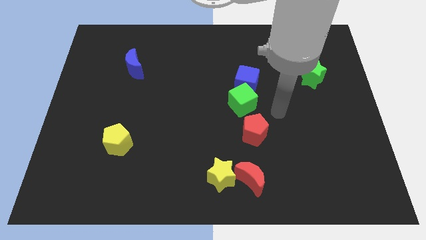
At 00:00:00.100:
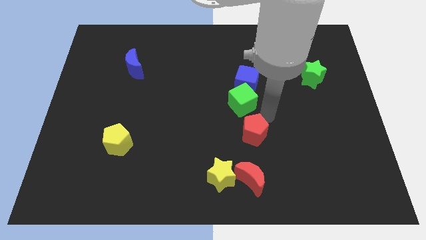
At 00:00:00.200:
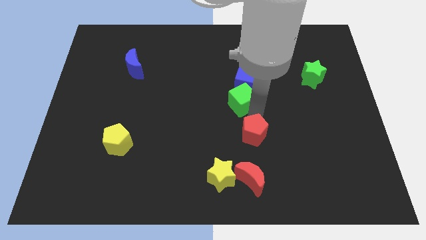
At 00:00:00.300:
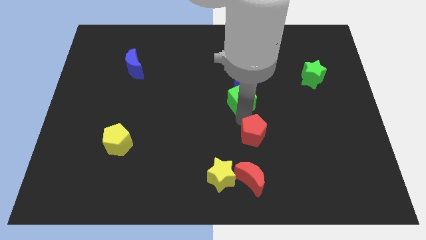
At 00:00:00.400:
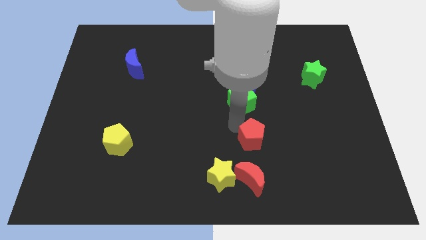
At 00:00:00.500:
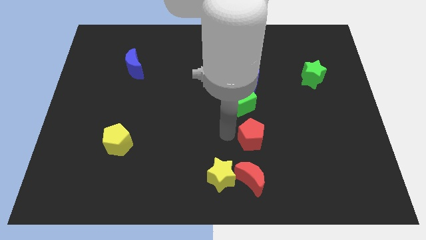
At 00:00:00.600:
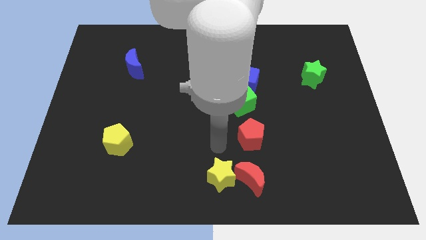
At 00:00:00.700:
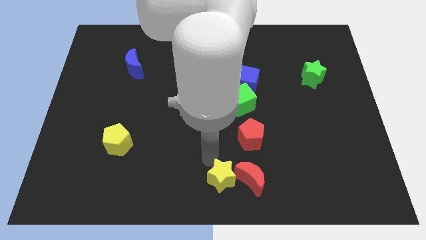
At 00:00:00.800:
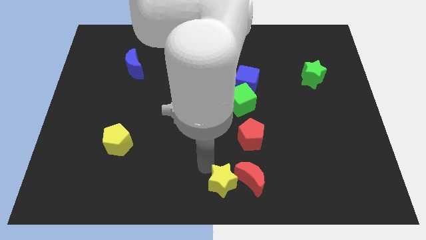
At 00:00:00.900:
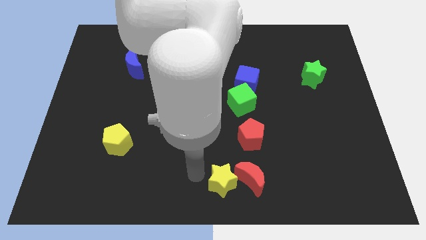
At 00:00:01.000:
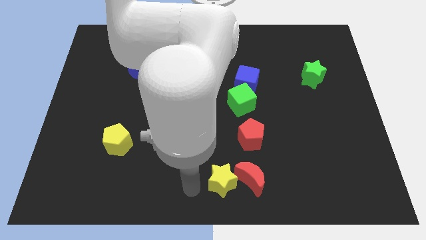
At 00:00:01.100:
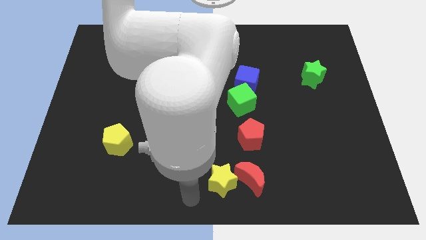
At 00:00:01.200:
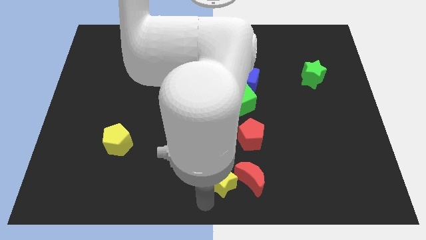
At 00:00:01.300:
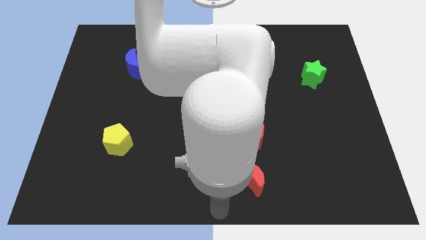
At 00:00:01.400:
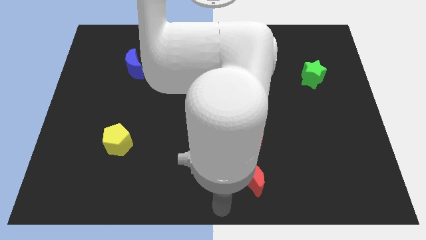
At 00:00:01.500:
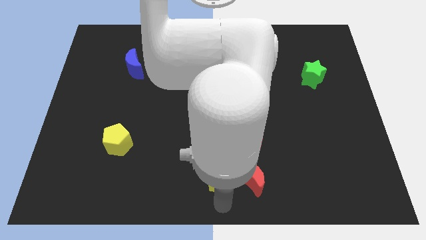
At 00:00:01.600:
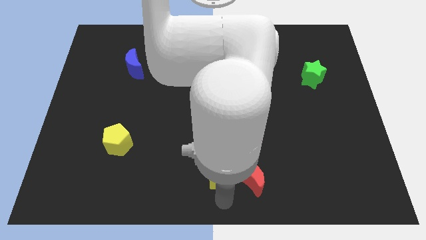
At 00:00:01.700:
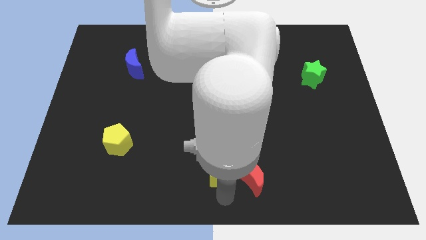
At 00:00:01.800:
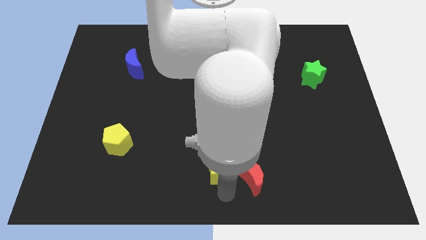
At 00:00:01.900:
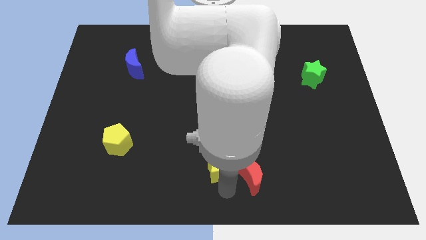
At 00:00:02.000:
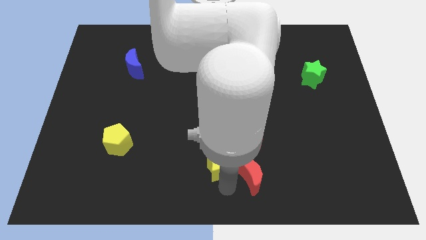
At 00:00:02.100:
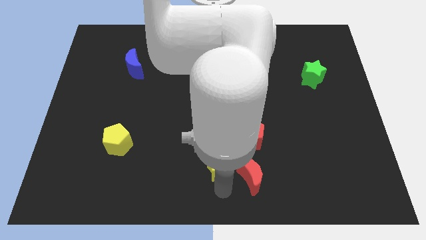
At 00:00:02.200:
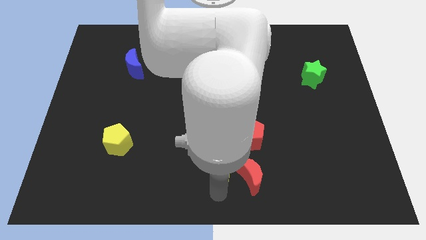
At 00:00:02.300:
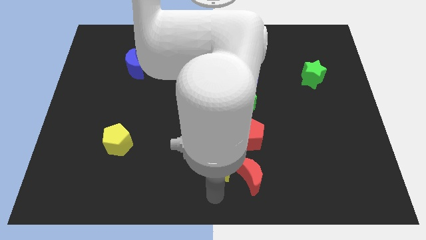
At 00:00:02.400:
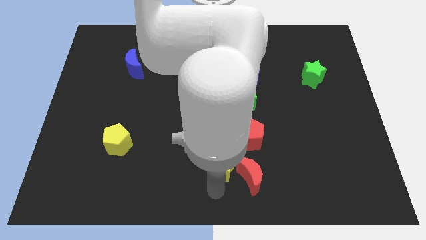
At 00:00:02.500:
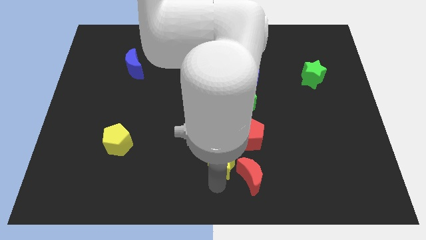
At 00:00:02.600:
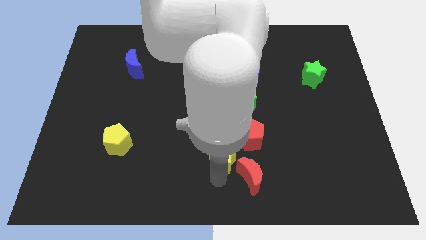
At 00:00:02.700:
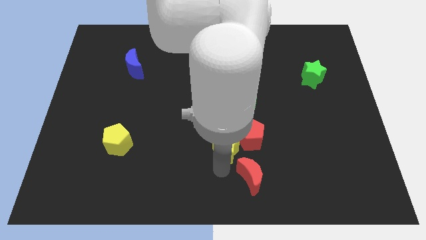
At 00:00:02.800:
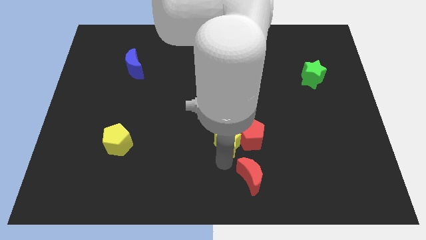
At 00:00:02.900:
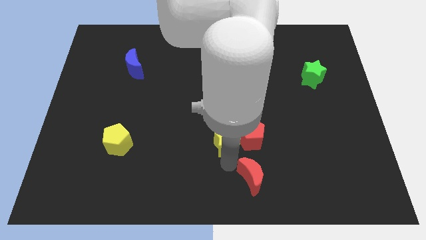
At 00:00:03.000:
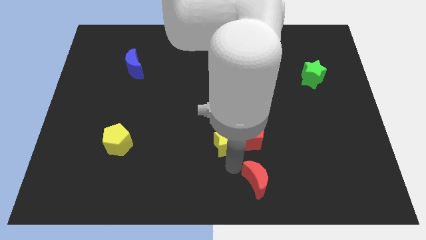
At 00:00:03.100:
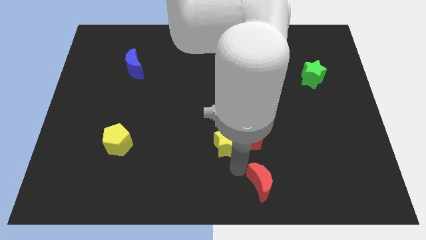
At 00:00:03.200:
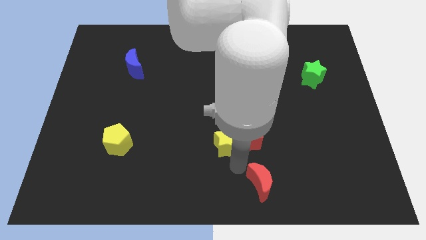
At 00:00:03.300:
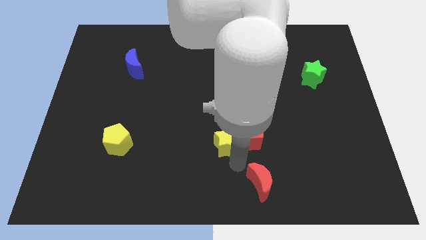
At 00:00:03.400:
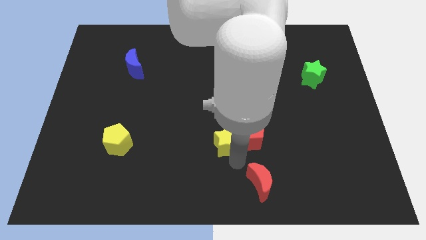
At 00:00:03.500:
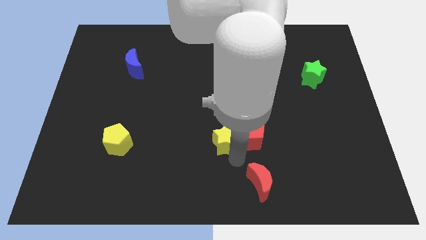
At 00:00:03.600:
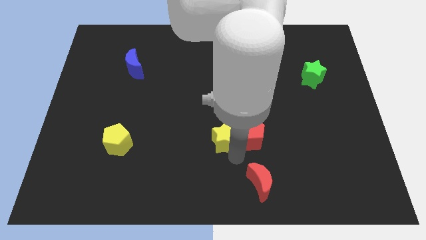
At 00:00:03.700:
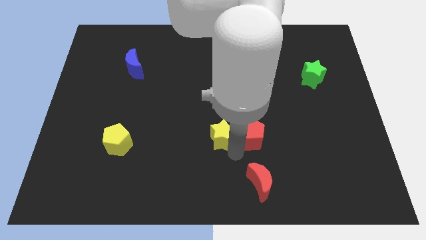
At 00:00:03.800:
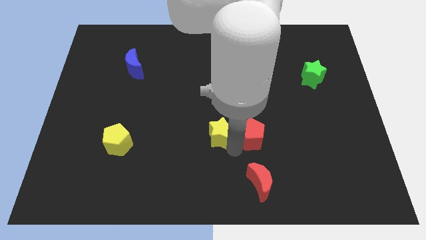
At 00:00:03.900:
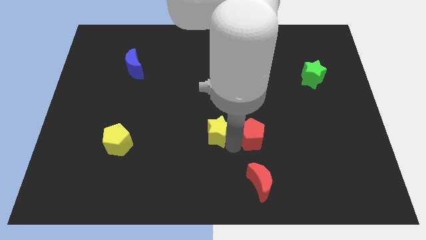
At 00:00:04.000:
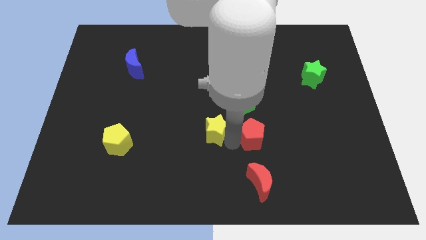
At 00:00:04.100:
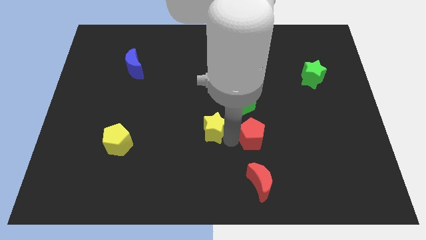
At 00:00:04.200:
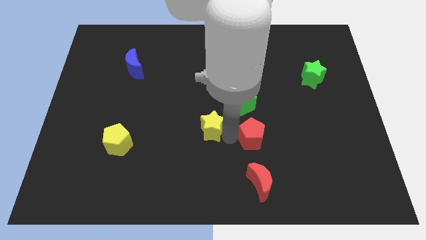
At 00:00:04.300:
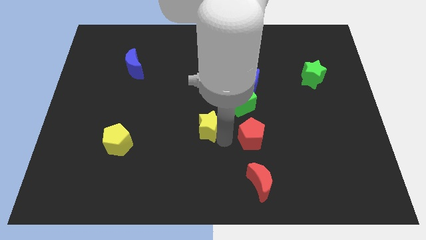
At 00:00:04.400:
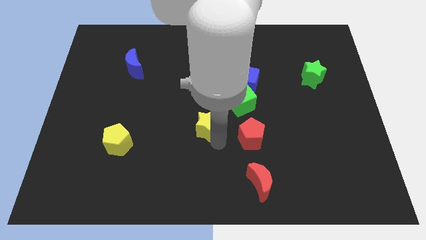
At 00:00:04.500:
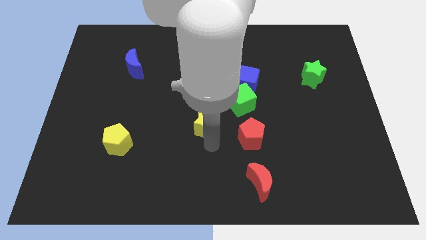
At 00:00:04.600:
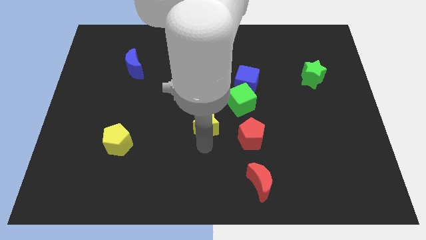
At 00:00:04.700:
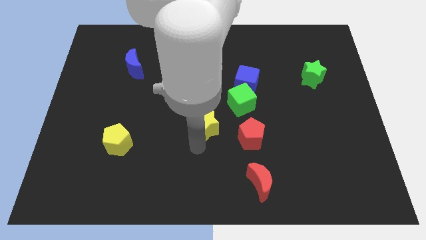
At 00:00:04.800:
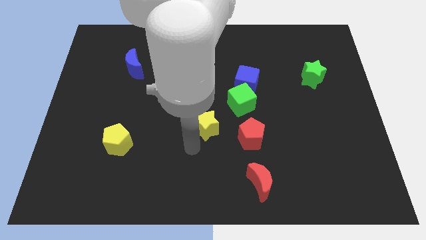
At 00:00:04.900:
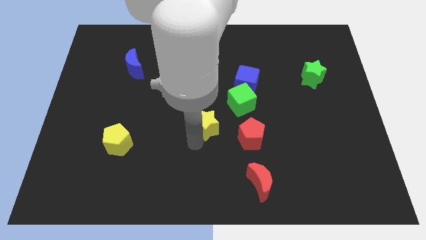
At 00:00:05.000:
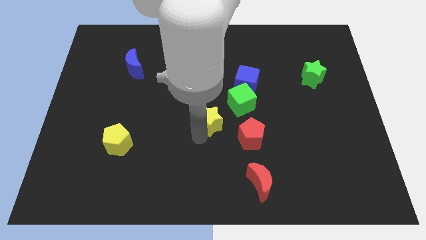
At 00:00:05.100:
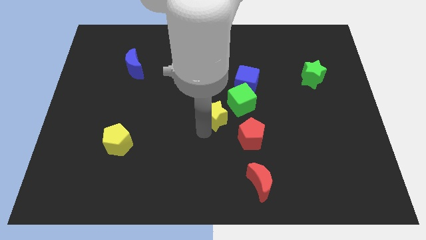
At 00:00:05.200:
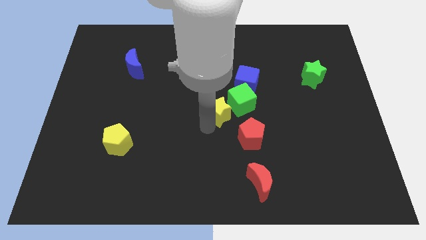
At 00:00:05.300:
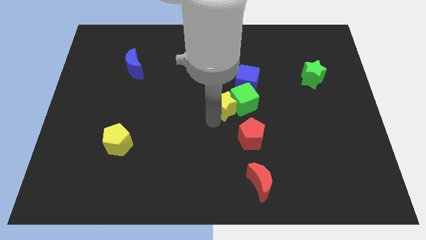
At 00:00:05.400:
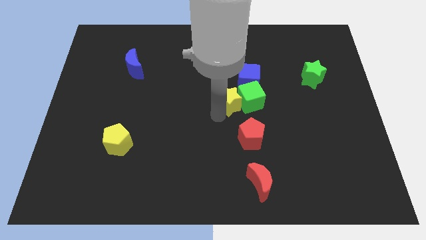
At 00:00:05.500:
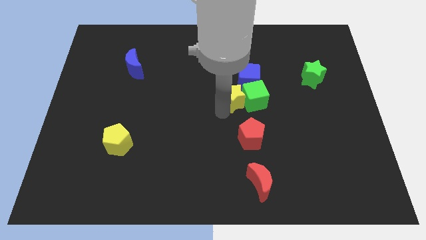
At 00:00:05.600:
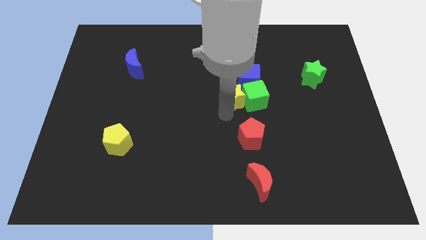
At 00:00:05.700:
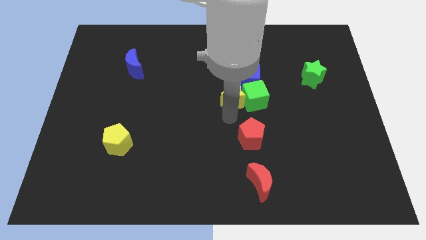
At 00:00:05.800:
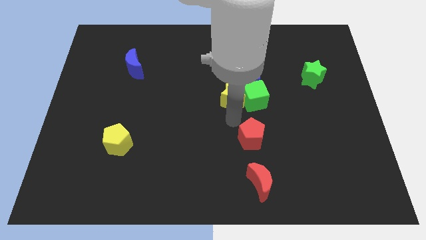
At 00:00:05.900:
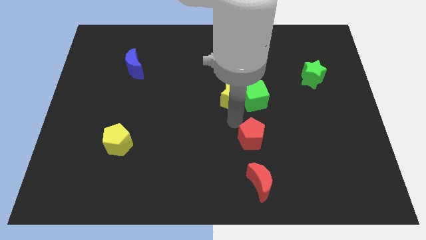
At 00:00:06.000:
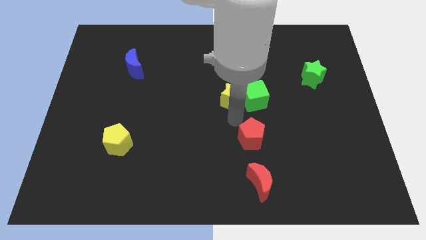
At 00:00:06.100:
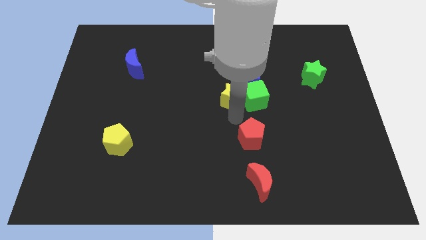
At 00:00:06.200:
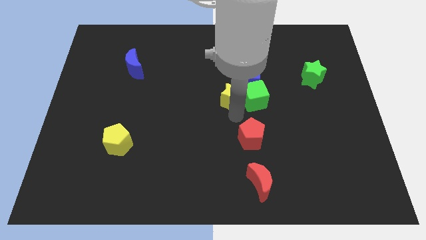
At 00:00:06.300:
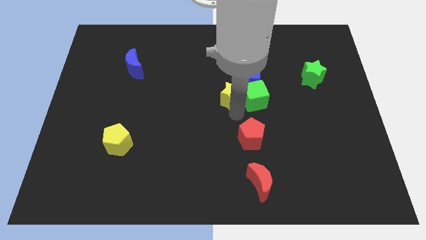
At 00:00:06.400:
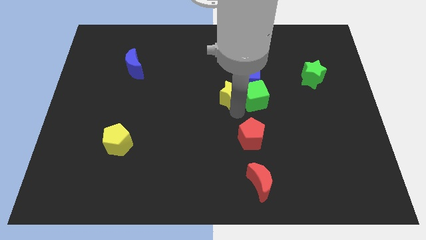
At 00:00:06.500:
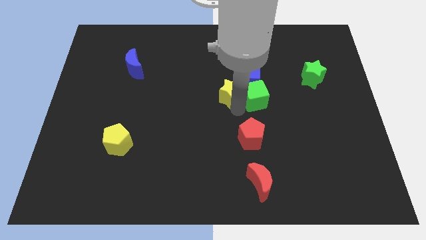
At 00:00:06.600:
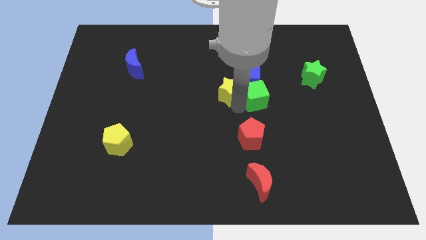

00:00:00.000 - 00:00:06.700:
slide the yellow star next to the blue cube

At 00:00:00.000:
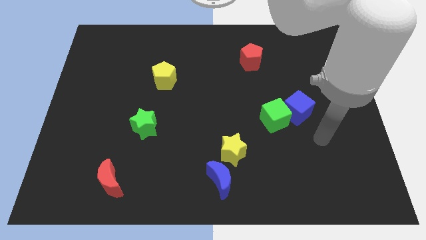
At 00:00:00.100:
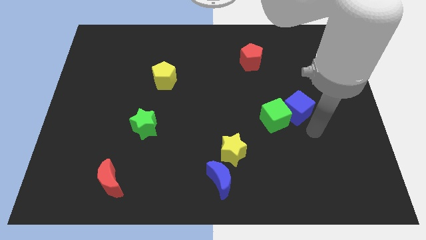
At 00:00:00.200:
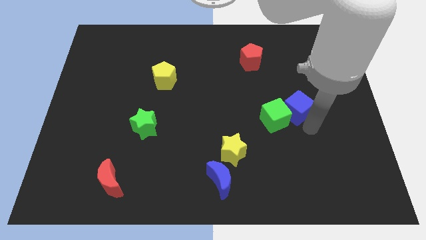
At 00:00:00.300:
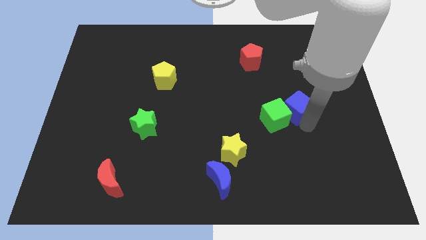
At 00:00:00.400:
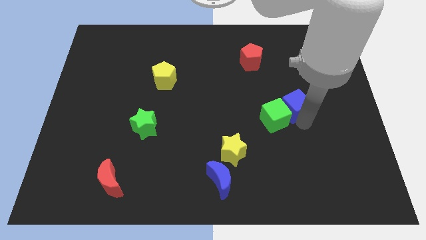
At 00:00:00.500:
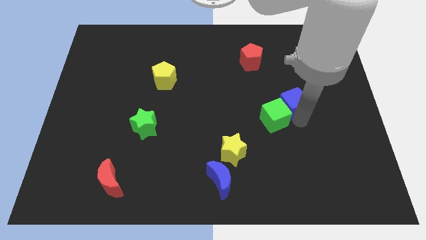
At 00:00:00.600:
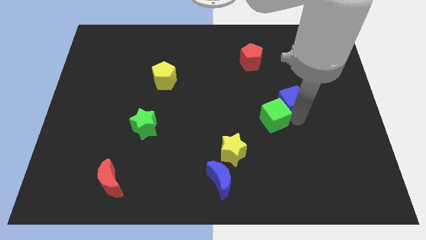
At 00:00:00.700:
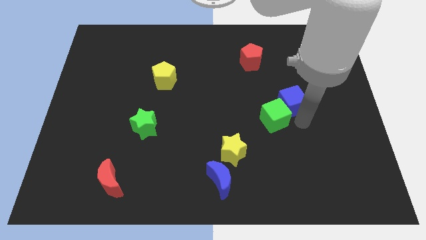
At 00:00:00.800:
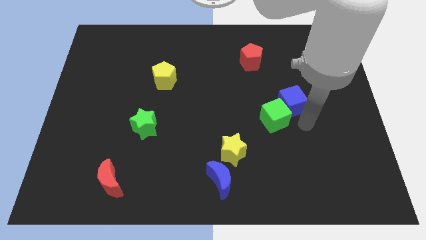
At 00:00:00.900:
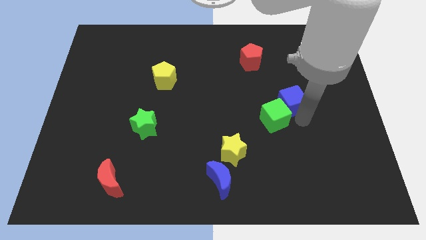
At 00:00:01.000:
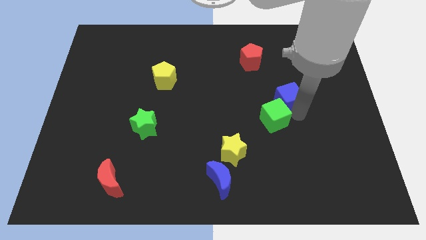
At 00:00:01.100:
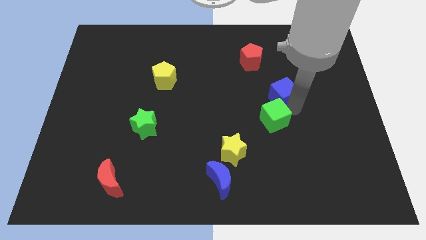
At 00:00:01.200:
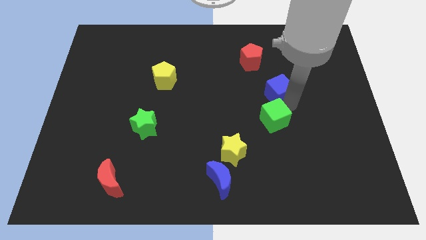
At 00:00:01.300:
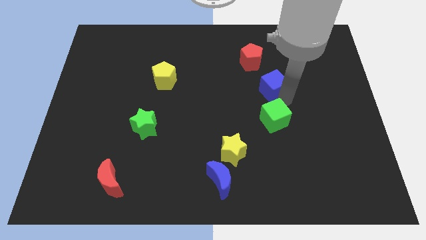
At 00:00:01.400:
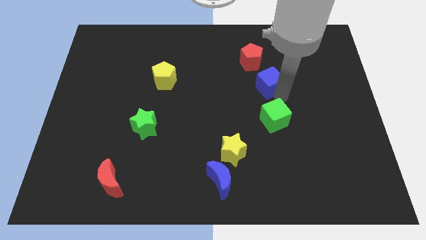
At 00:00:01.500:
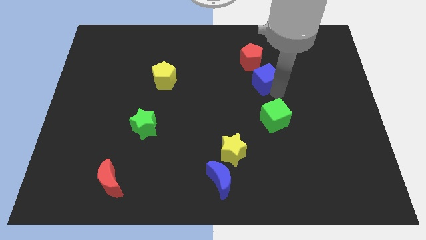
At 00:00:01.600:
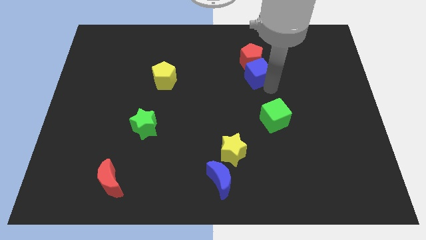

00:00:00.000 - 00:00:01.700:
move the blue cube towards the red pentagon
